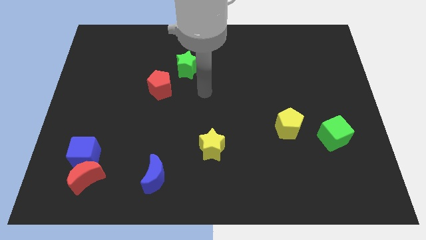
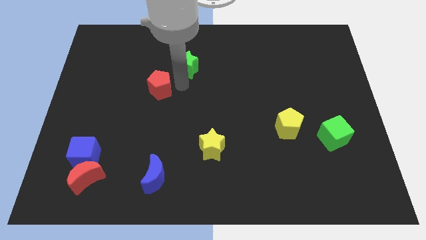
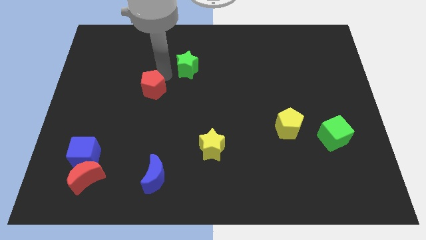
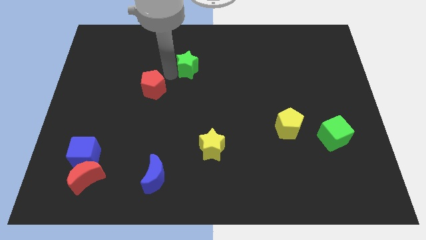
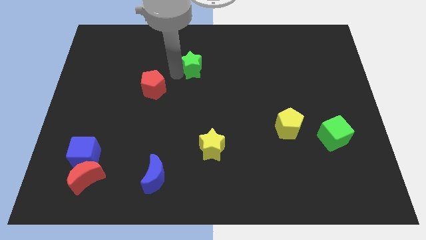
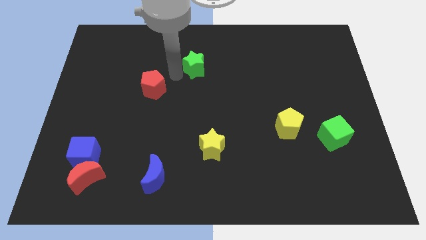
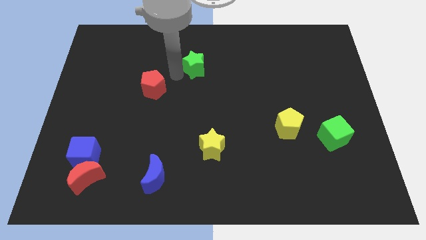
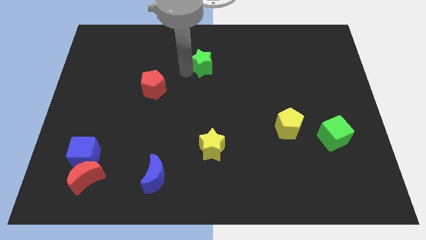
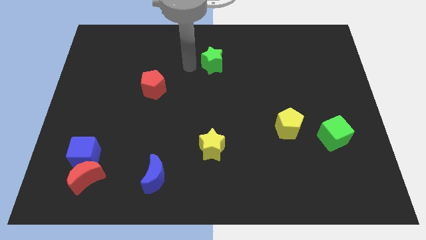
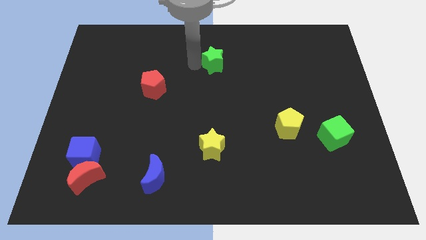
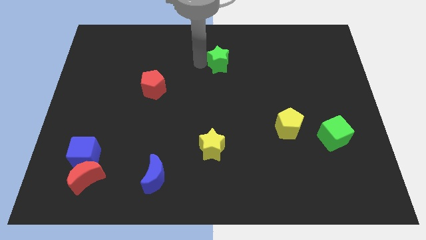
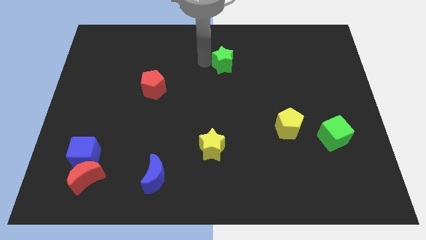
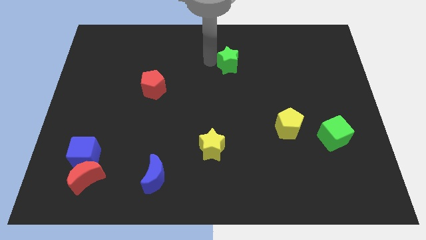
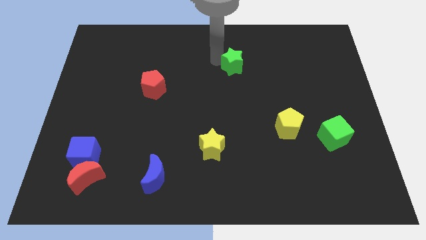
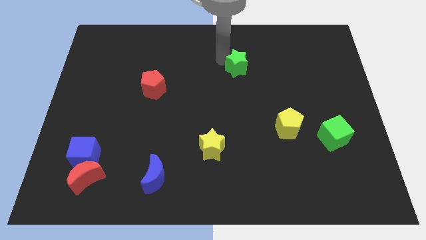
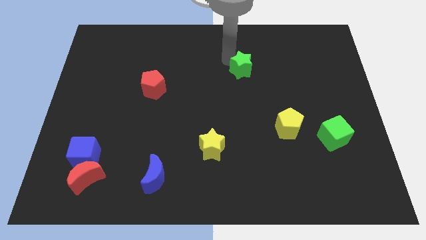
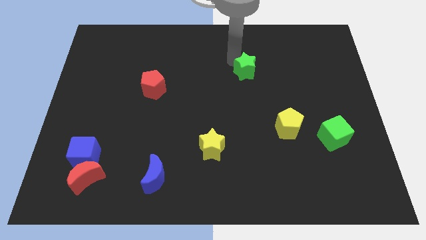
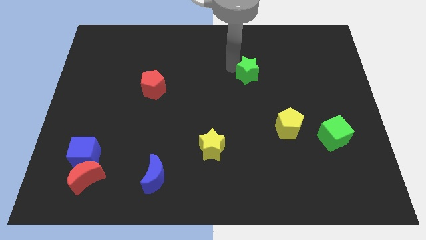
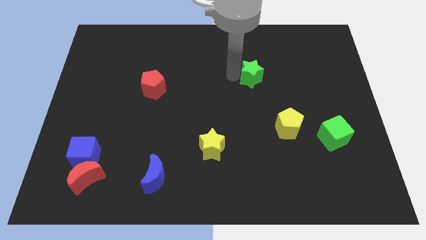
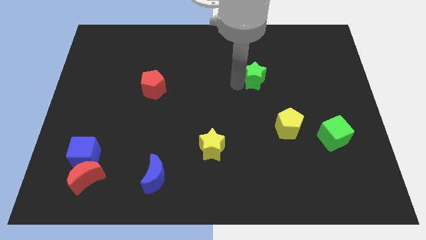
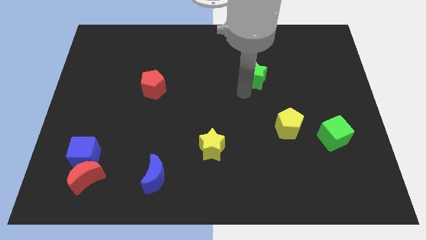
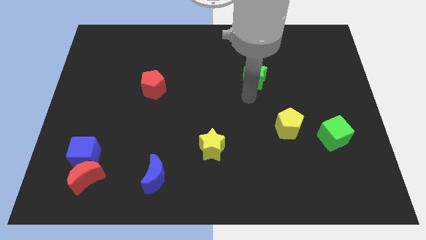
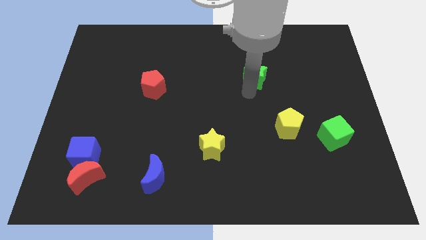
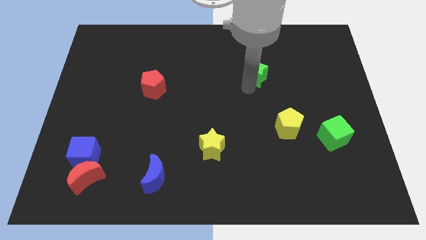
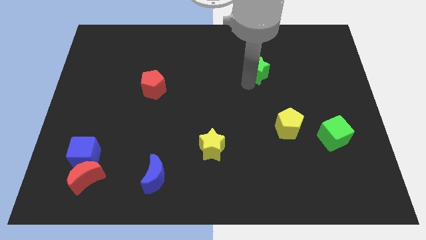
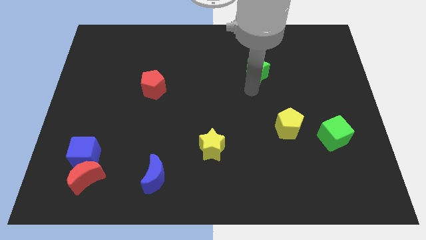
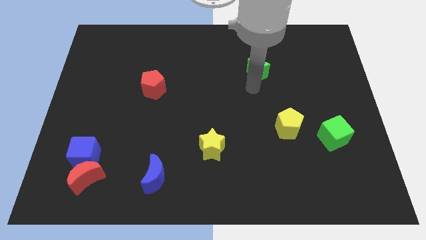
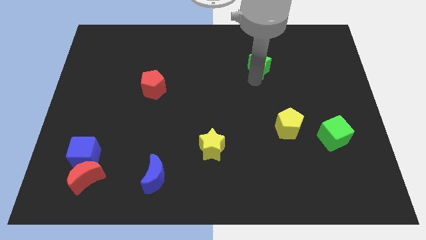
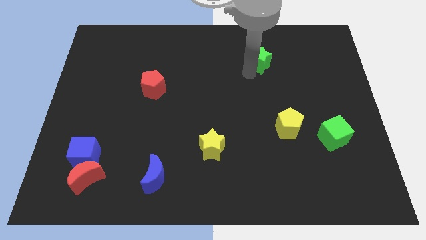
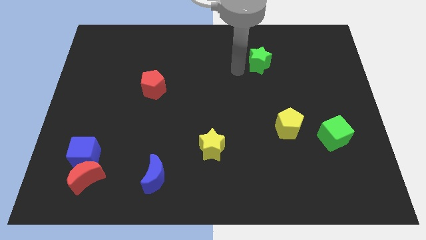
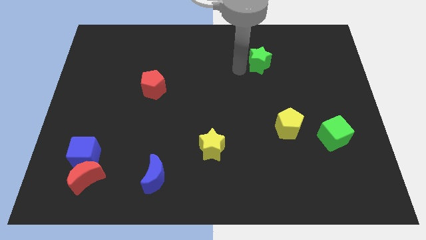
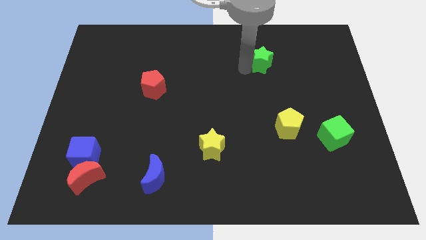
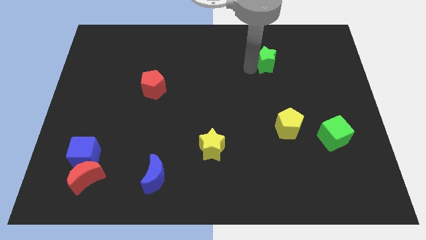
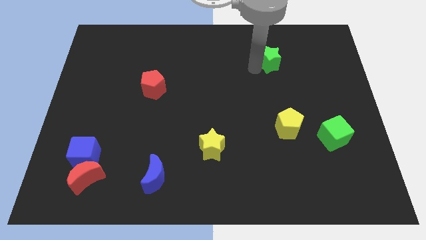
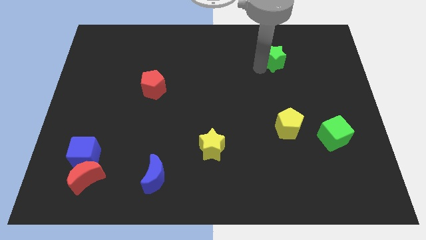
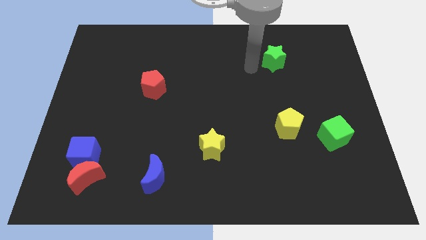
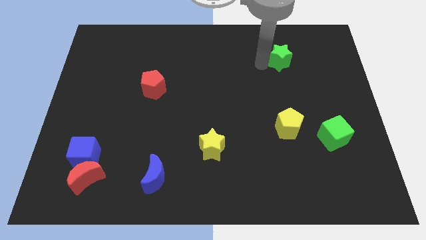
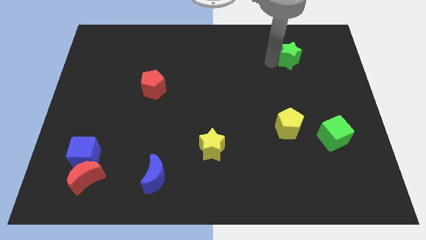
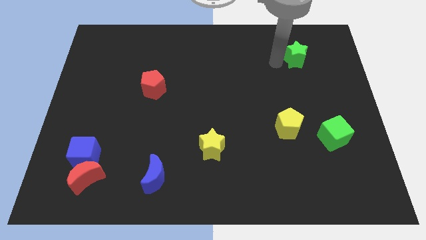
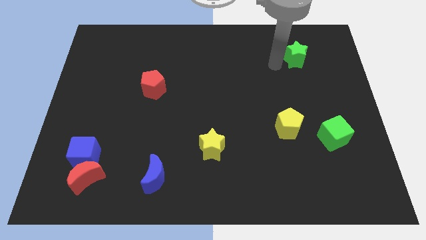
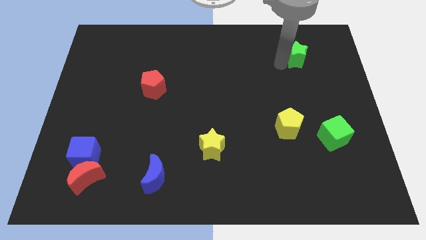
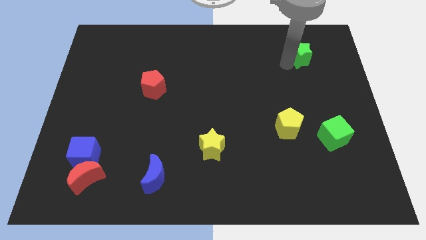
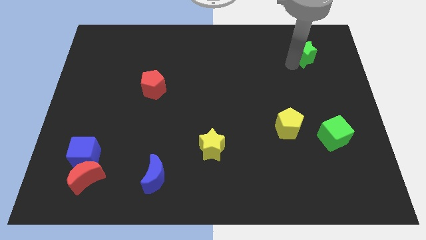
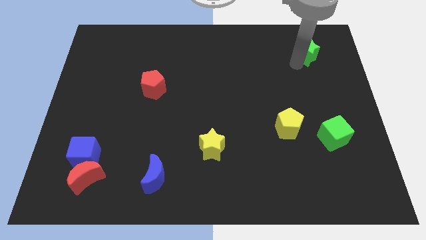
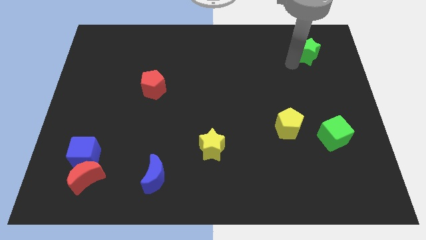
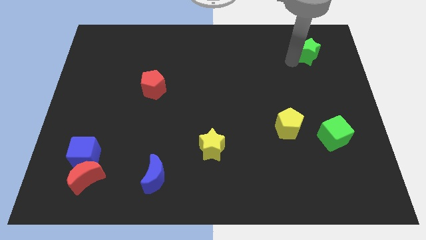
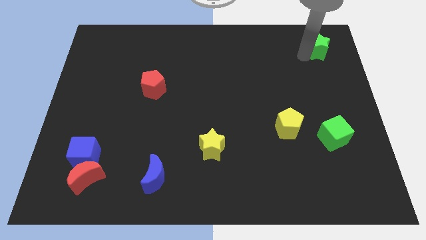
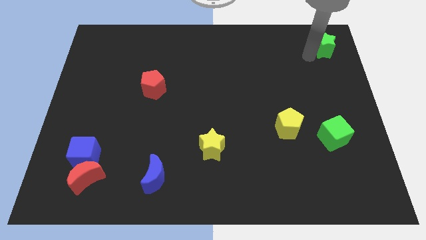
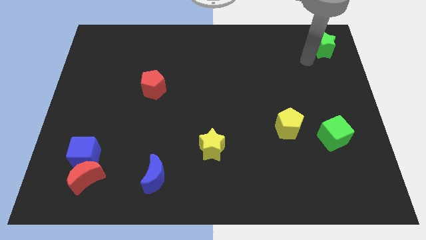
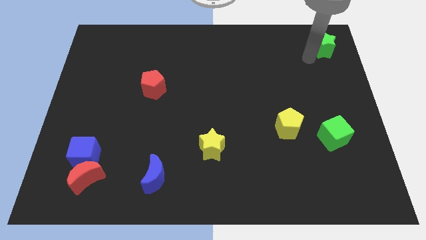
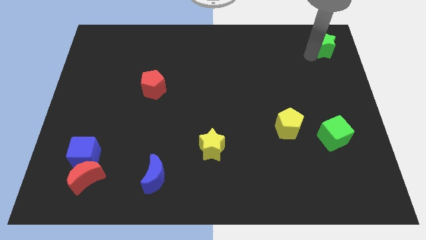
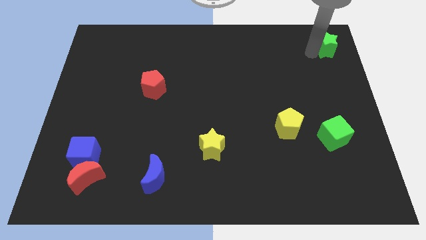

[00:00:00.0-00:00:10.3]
push the green star to the upper right corner

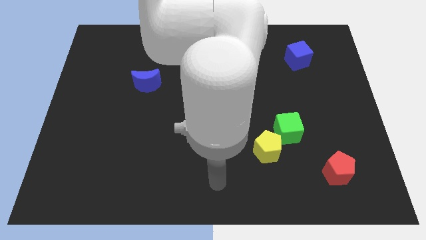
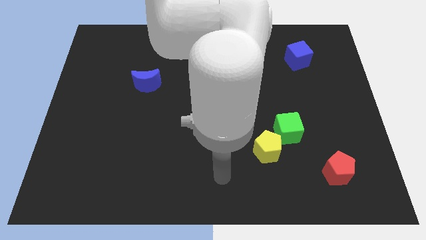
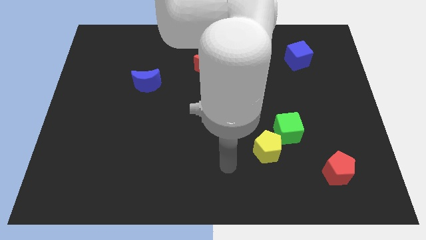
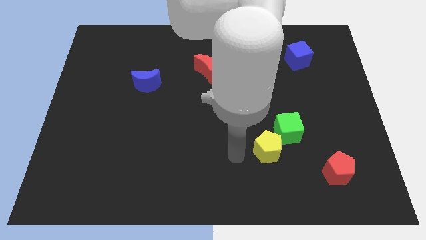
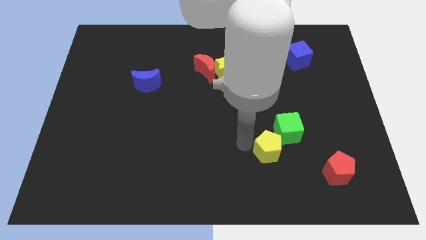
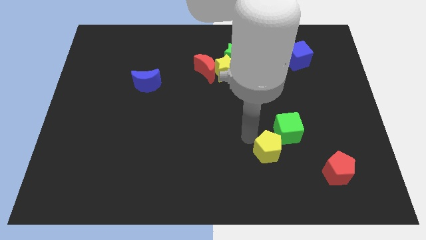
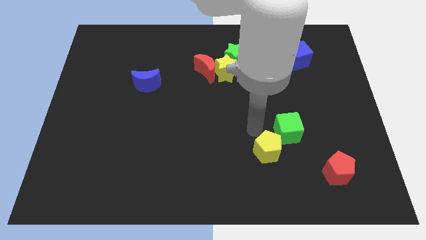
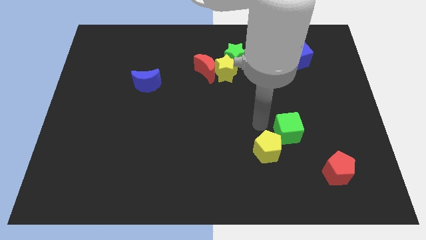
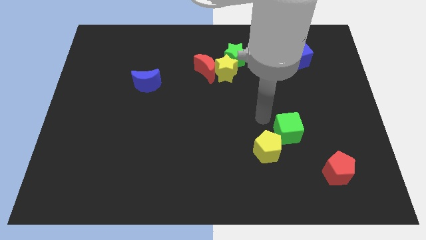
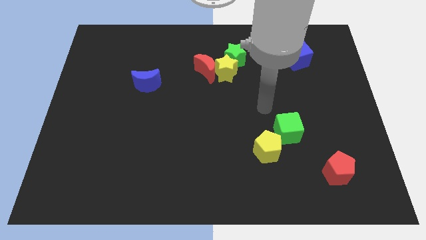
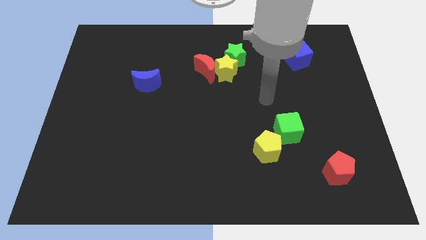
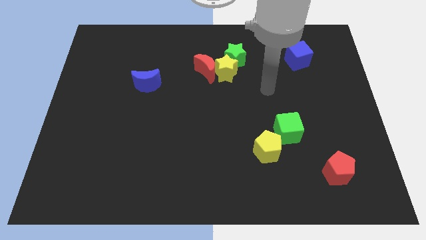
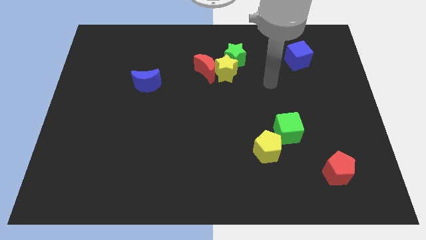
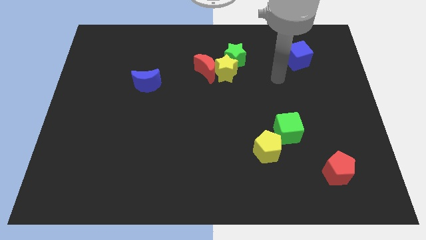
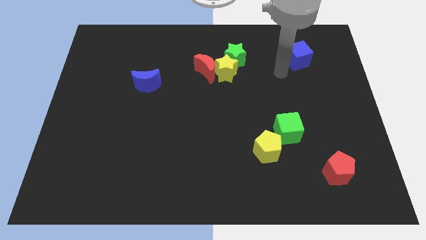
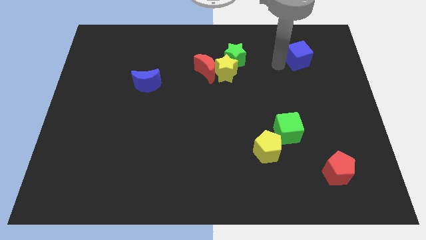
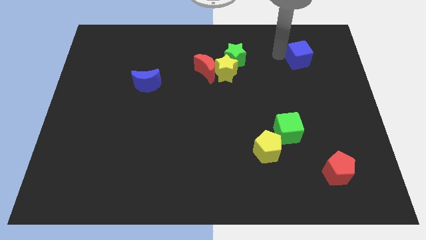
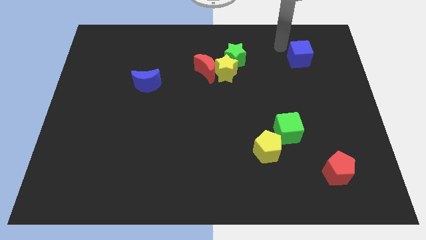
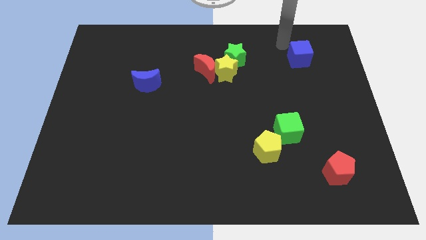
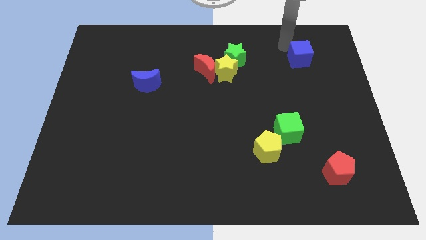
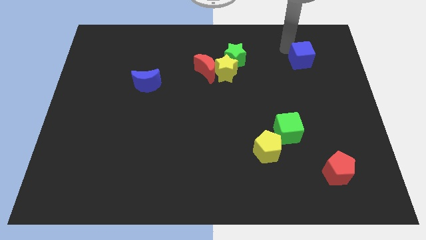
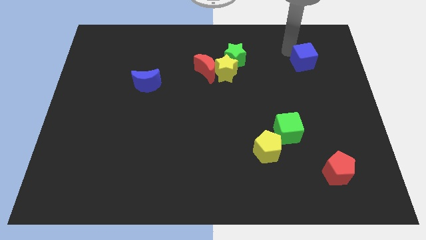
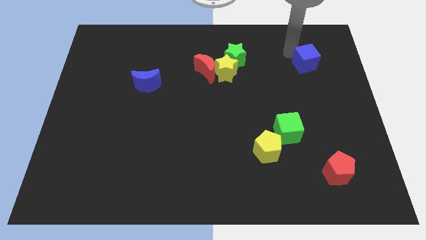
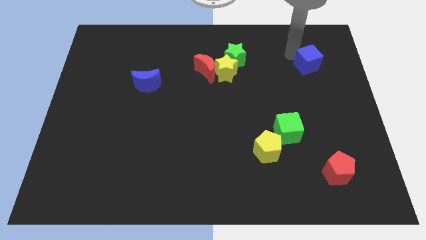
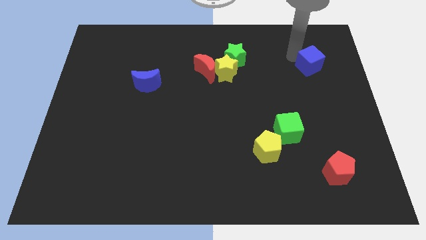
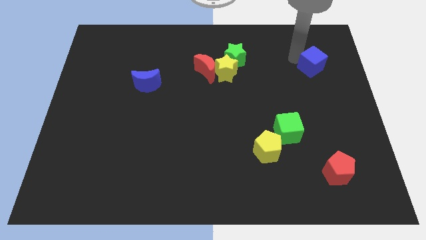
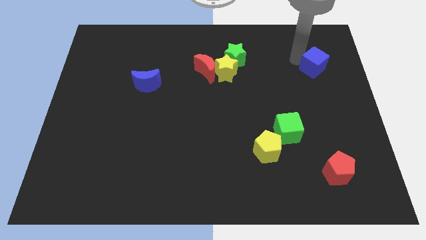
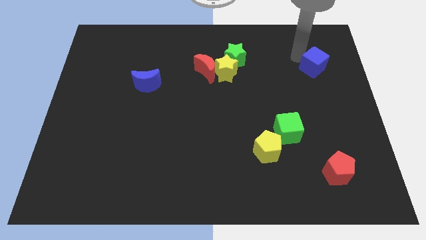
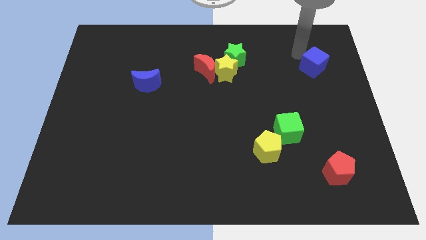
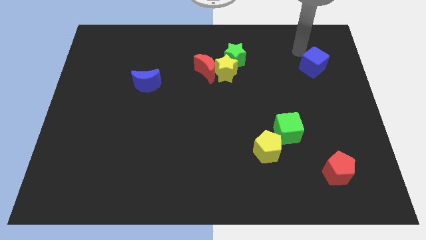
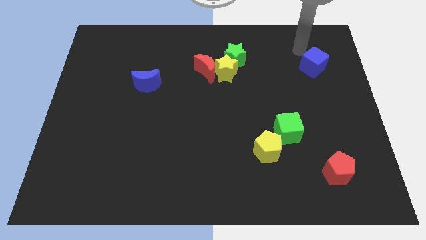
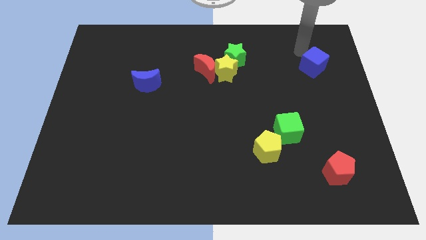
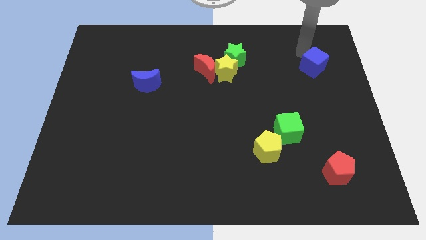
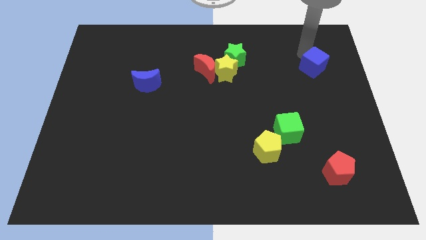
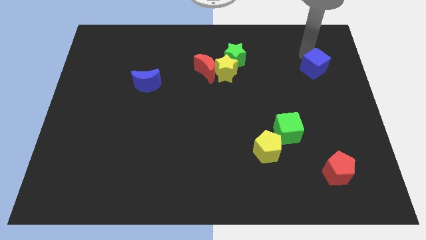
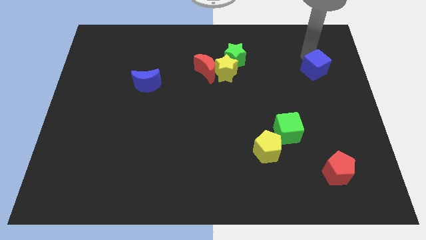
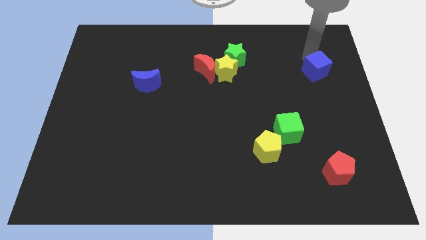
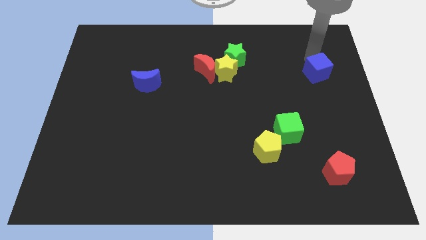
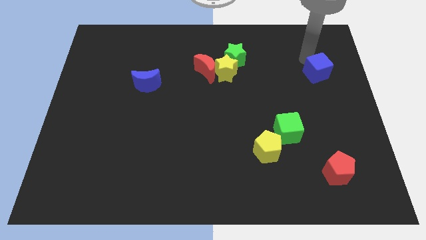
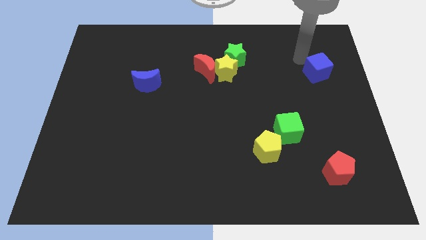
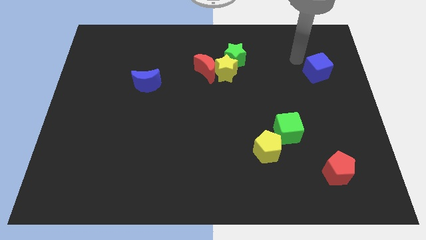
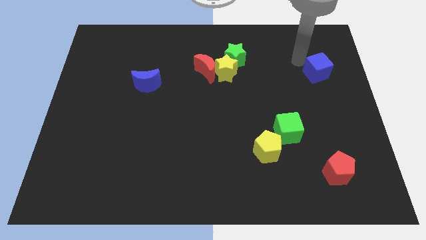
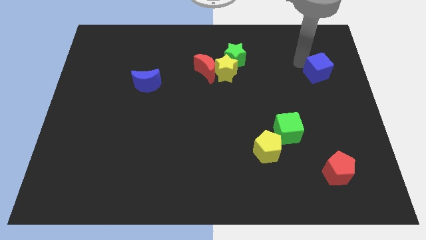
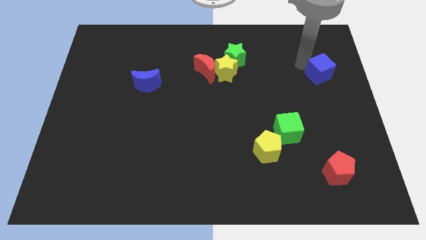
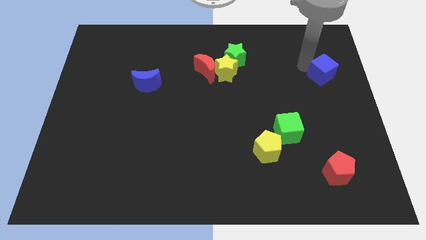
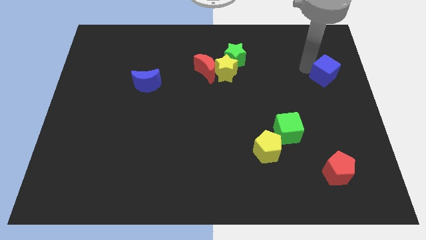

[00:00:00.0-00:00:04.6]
push the blue cube to the right side of the board
